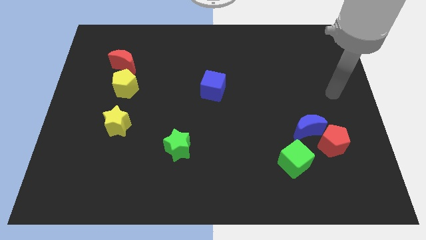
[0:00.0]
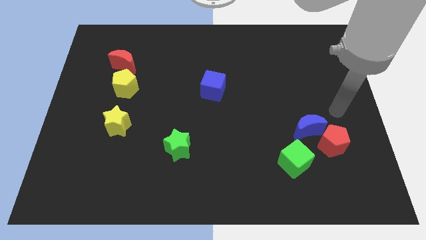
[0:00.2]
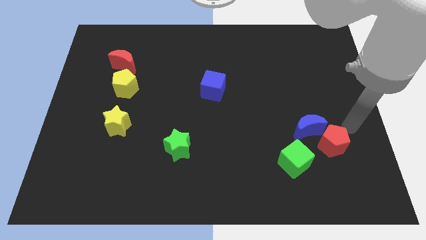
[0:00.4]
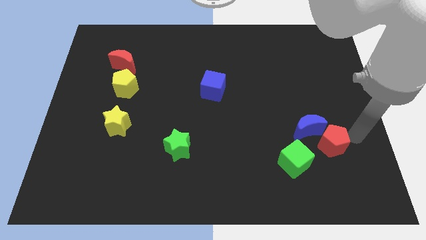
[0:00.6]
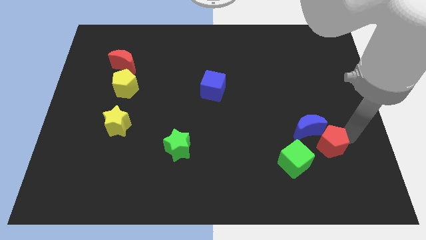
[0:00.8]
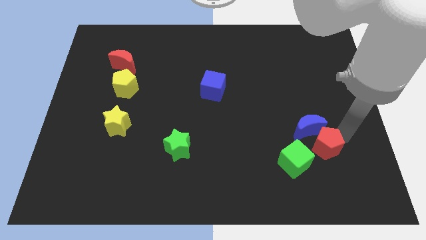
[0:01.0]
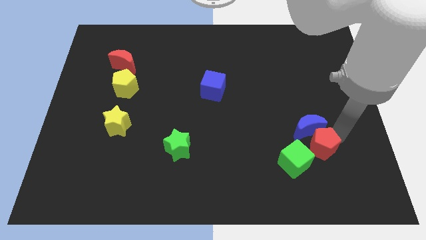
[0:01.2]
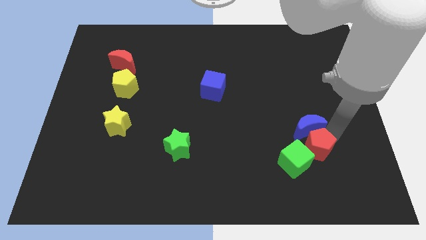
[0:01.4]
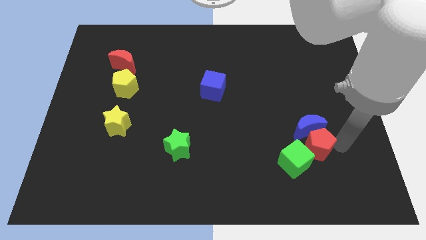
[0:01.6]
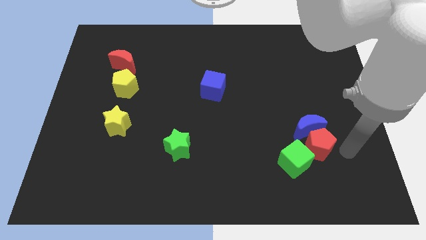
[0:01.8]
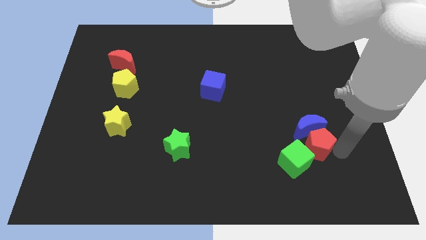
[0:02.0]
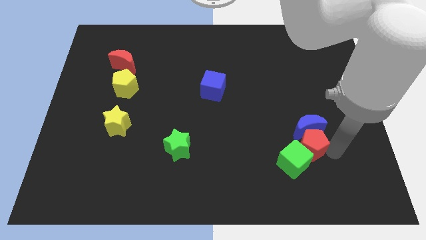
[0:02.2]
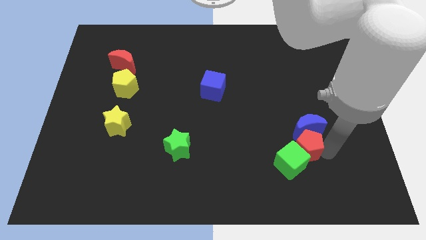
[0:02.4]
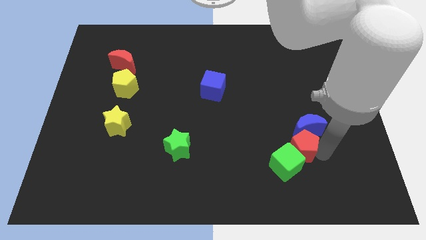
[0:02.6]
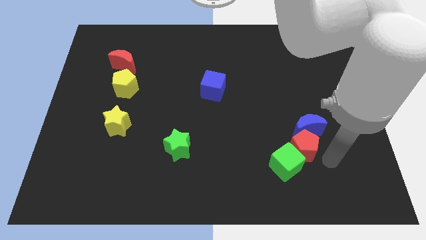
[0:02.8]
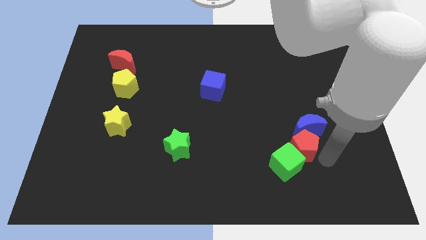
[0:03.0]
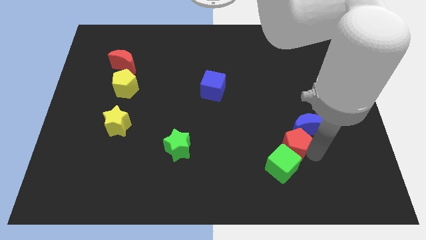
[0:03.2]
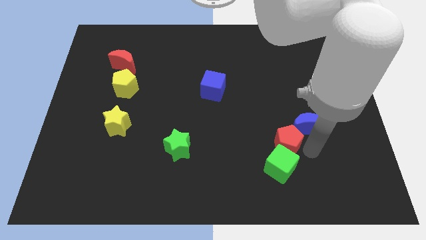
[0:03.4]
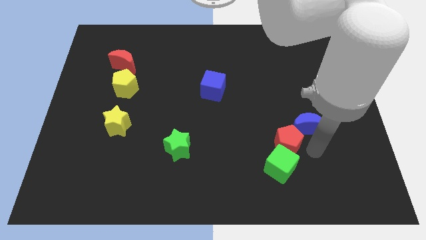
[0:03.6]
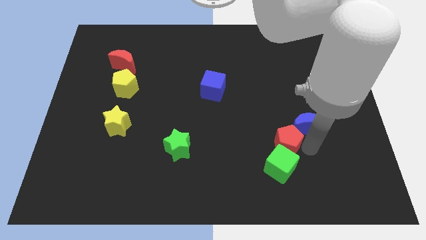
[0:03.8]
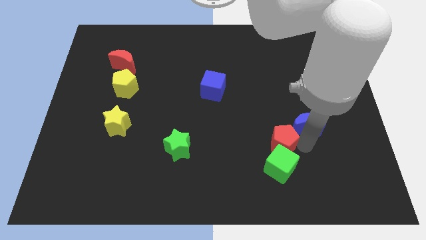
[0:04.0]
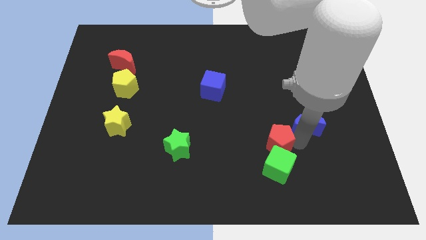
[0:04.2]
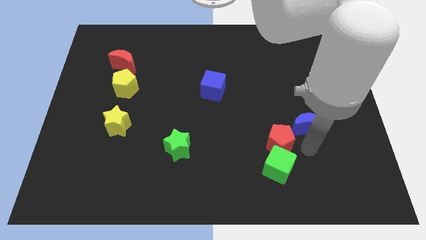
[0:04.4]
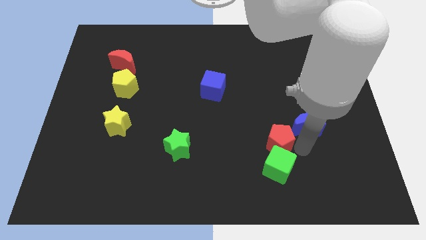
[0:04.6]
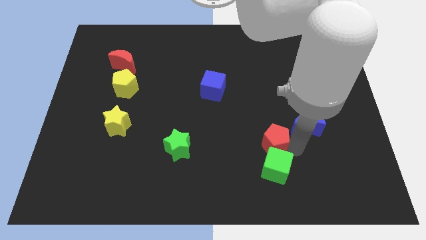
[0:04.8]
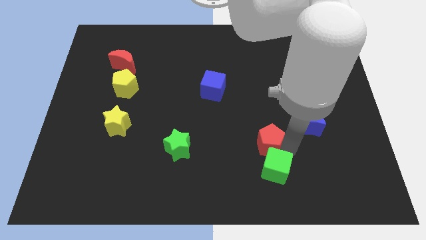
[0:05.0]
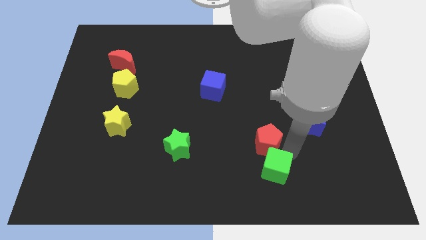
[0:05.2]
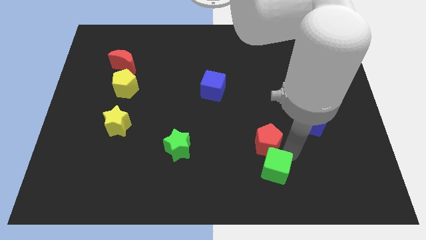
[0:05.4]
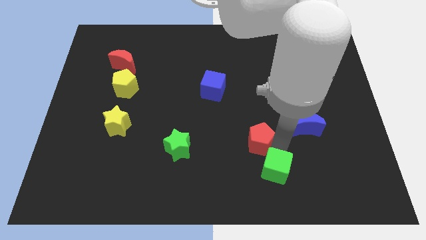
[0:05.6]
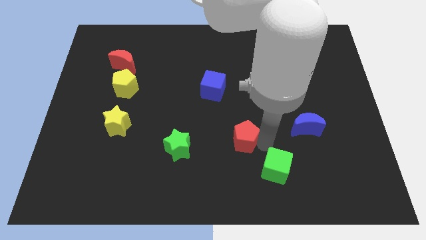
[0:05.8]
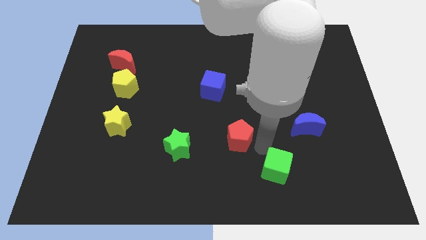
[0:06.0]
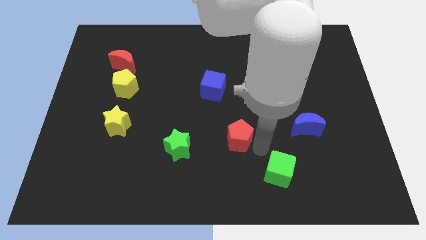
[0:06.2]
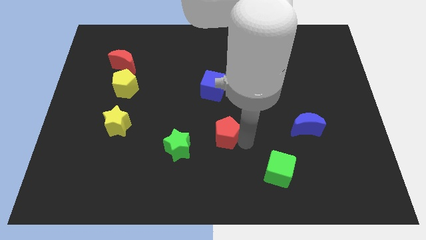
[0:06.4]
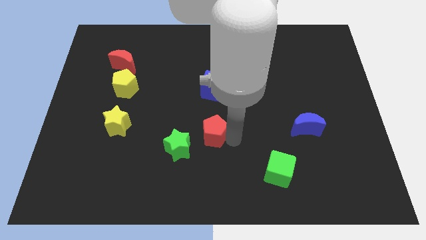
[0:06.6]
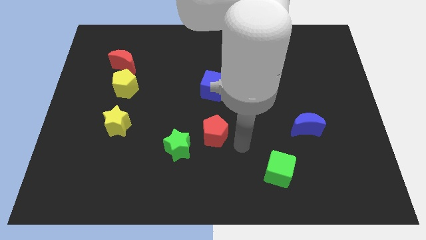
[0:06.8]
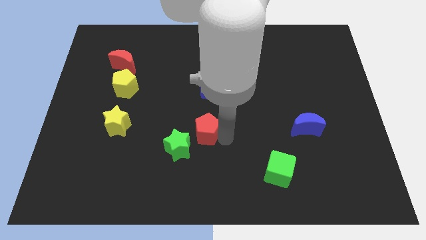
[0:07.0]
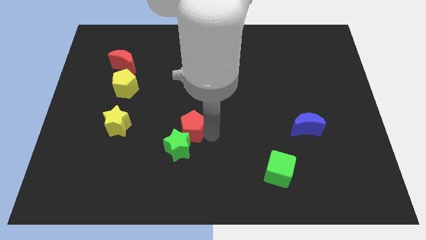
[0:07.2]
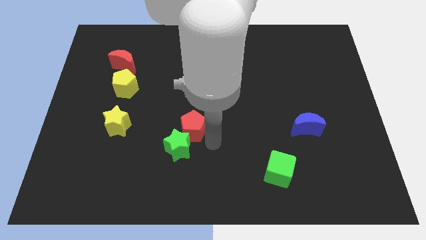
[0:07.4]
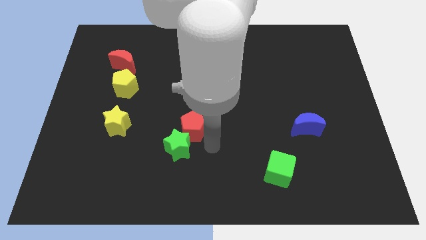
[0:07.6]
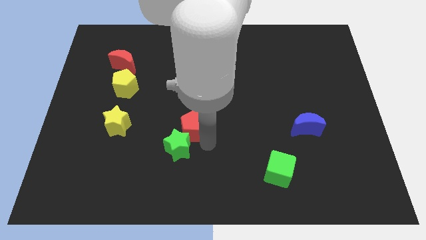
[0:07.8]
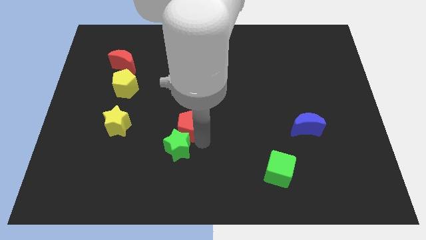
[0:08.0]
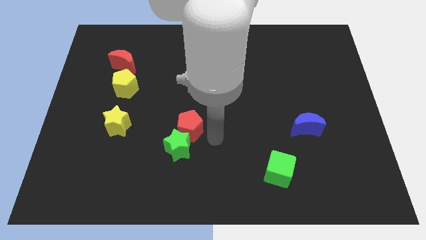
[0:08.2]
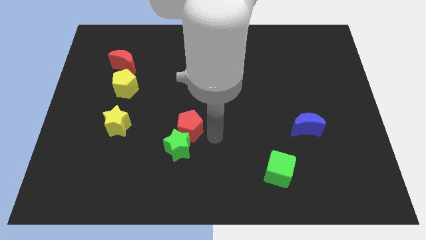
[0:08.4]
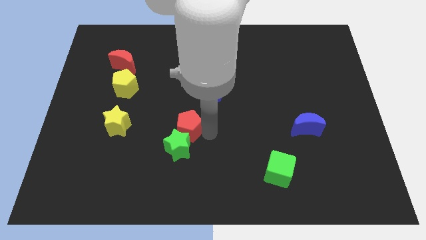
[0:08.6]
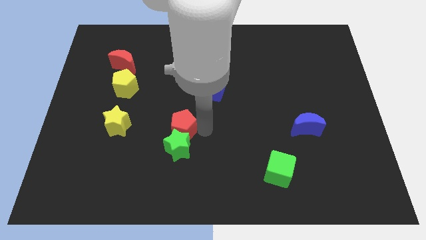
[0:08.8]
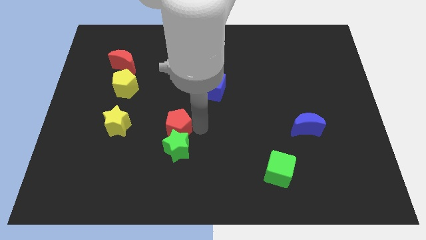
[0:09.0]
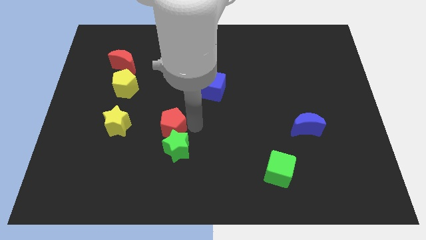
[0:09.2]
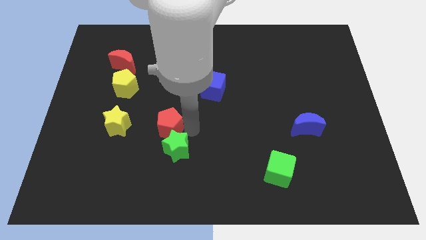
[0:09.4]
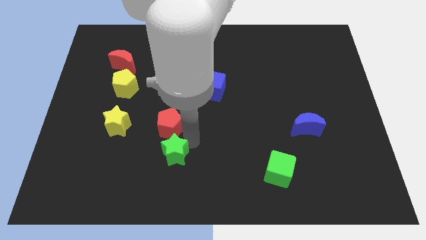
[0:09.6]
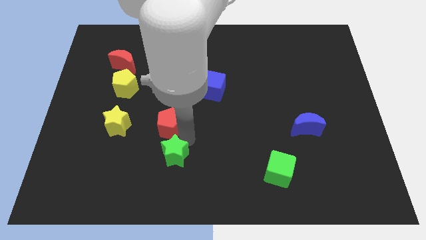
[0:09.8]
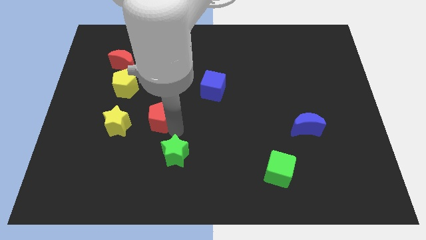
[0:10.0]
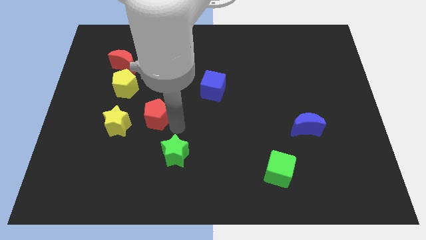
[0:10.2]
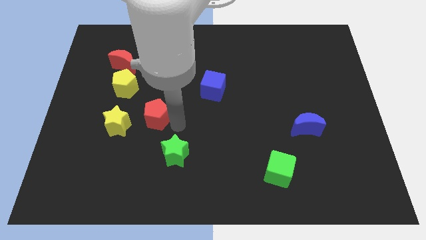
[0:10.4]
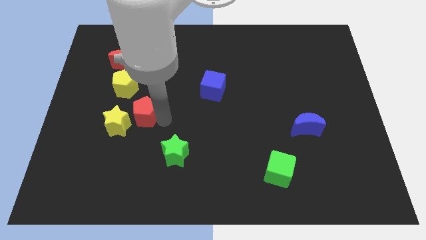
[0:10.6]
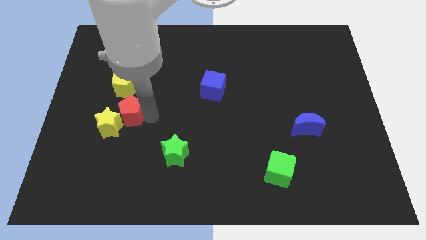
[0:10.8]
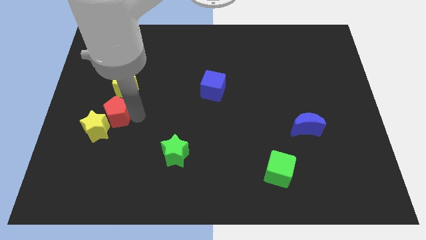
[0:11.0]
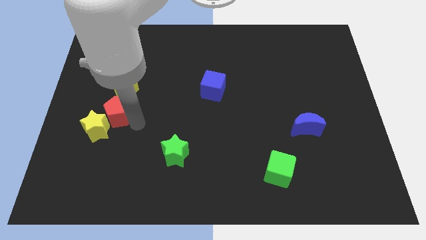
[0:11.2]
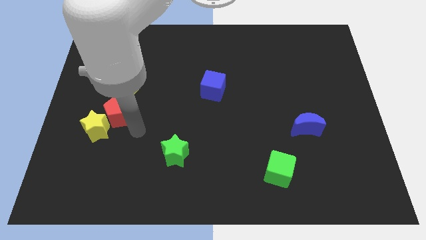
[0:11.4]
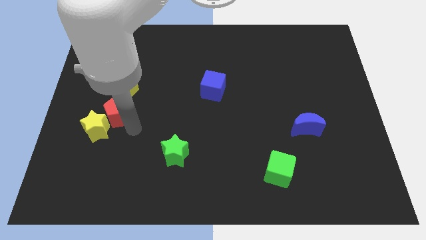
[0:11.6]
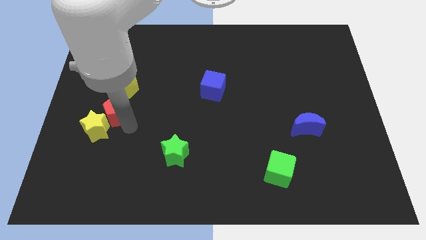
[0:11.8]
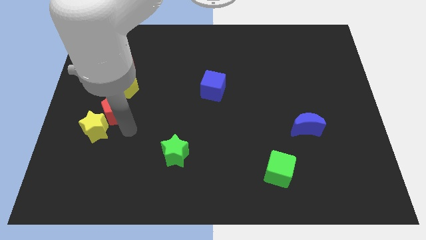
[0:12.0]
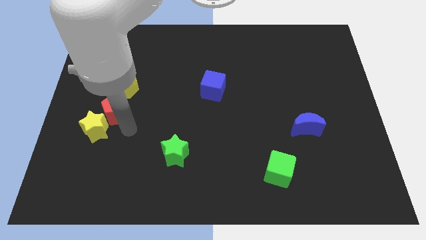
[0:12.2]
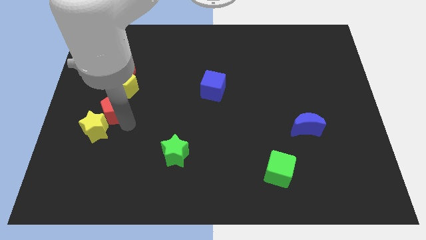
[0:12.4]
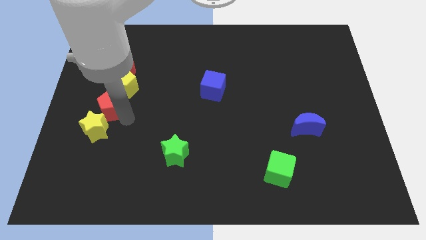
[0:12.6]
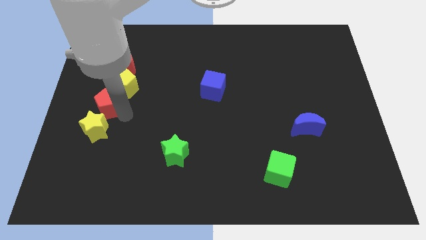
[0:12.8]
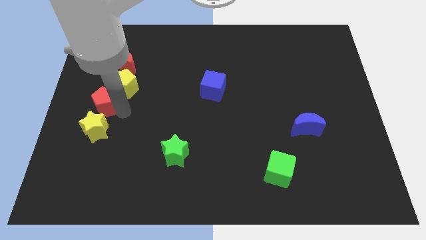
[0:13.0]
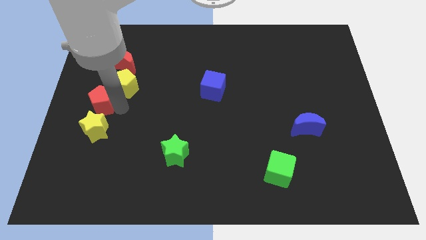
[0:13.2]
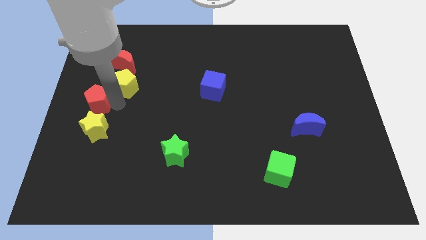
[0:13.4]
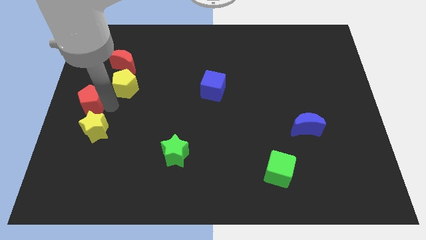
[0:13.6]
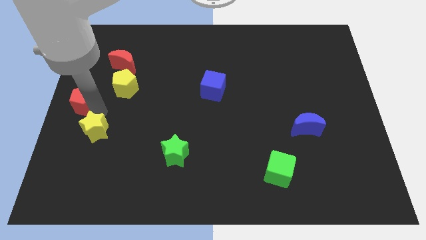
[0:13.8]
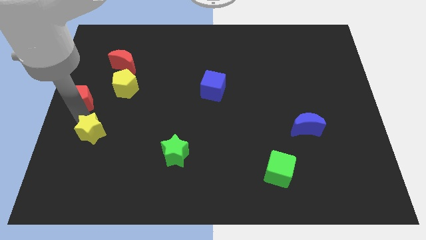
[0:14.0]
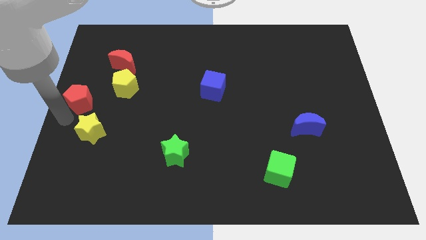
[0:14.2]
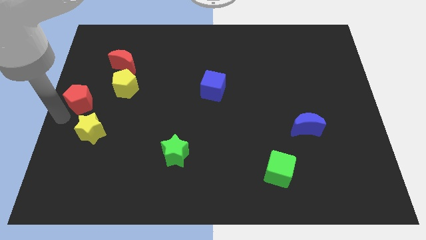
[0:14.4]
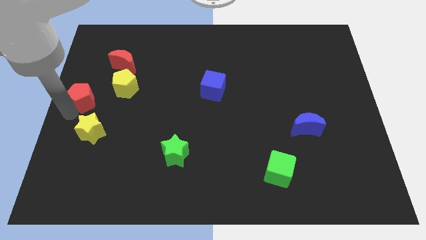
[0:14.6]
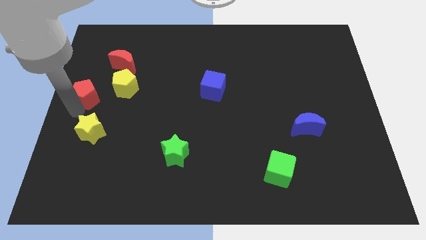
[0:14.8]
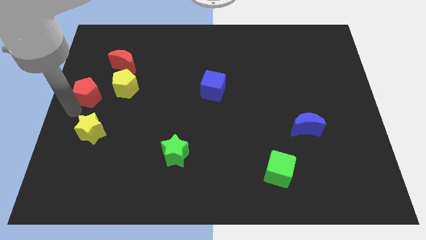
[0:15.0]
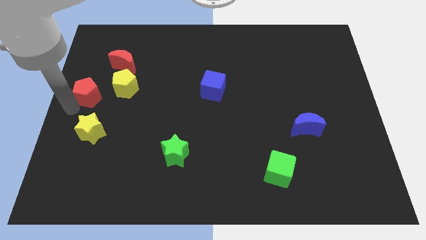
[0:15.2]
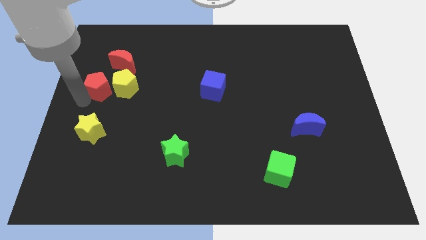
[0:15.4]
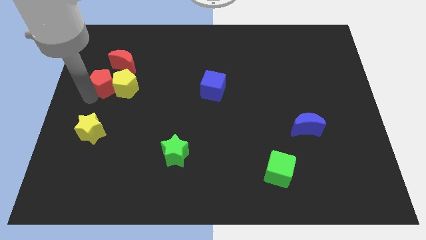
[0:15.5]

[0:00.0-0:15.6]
push the red pentagon to the top left of the yellow pentagon
